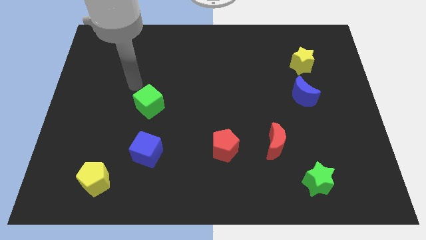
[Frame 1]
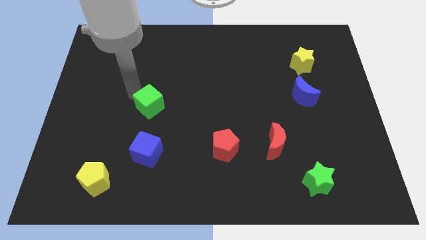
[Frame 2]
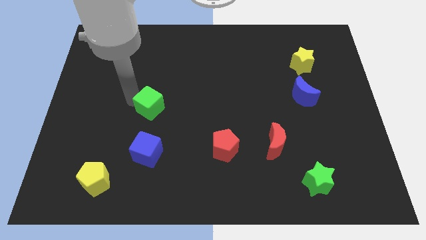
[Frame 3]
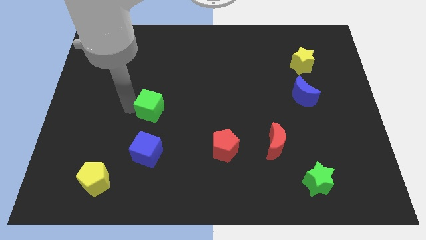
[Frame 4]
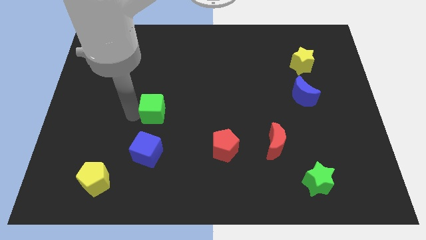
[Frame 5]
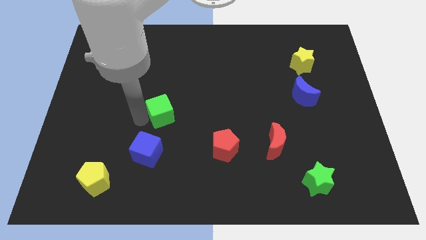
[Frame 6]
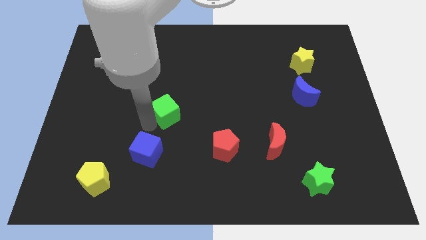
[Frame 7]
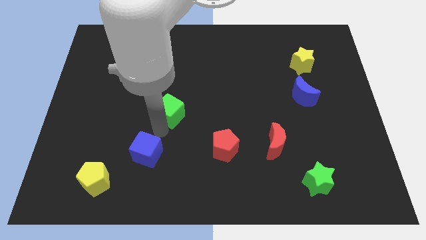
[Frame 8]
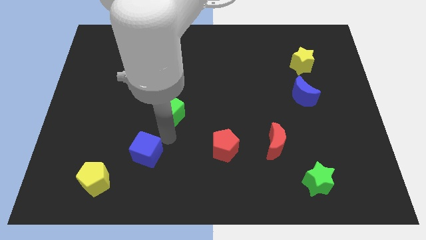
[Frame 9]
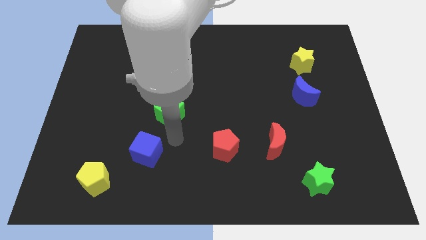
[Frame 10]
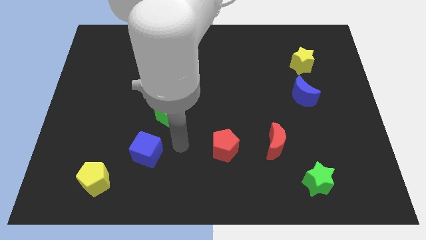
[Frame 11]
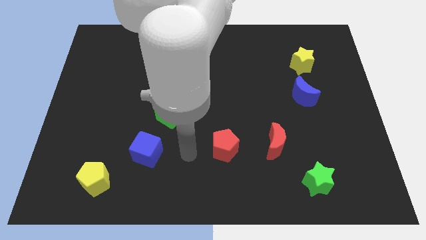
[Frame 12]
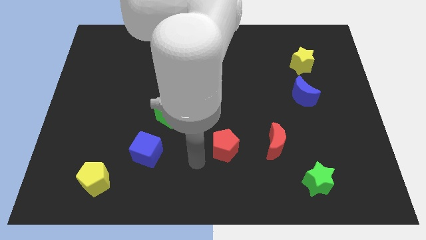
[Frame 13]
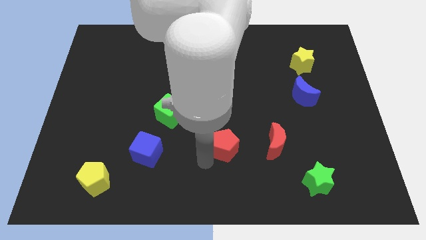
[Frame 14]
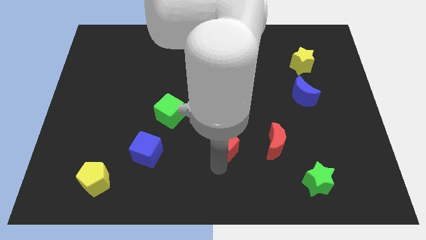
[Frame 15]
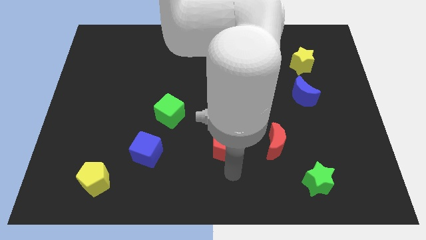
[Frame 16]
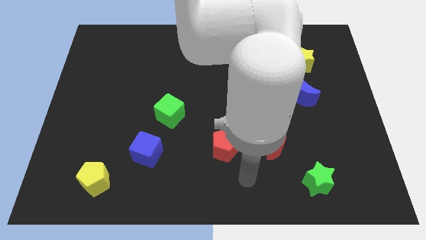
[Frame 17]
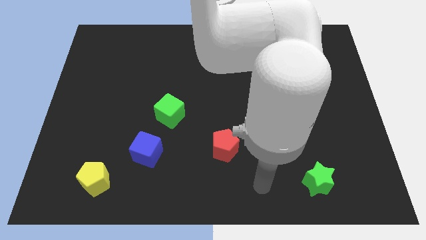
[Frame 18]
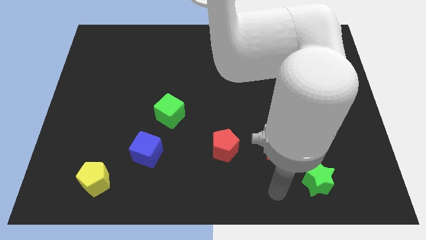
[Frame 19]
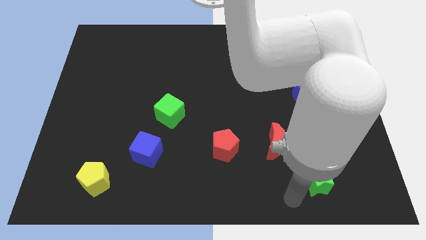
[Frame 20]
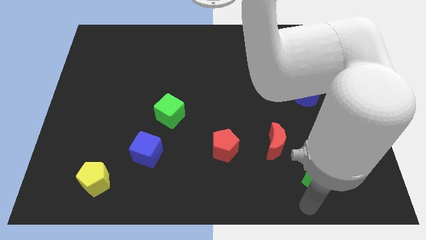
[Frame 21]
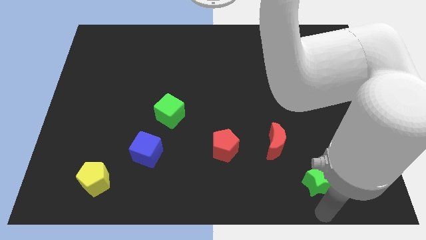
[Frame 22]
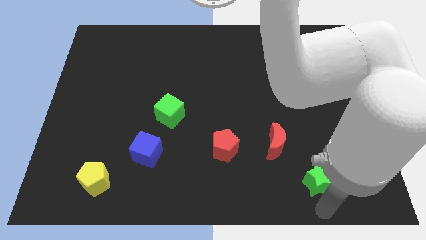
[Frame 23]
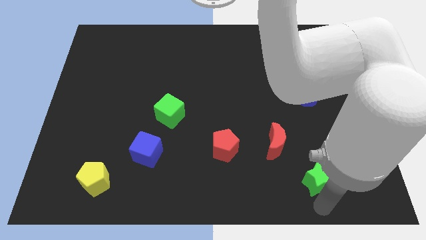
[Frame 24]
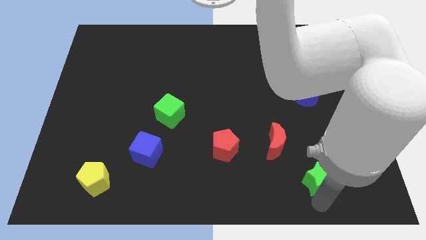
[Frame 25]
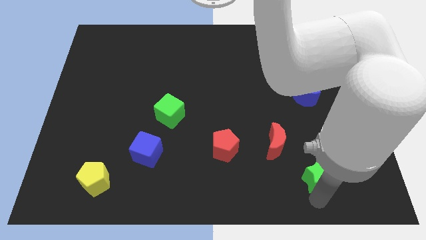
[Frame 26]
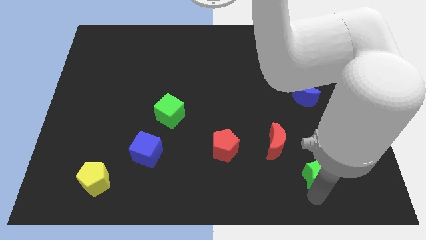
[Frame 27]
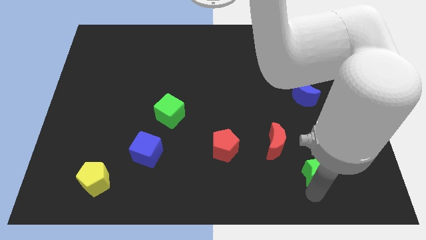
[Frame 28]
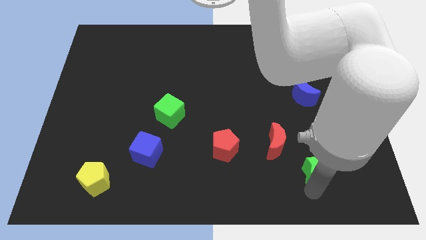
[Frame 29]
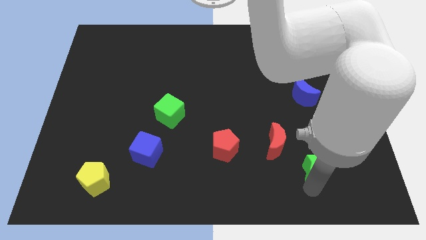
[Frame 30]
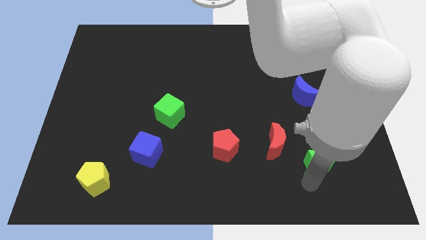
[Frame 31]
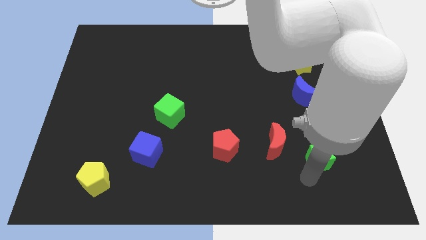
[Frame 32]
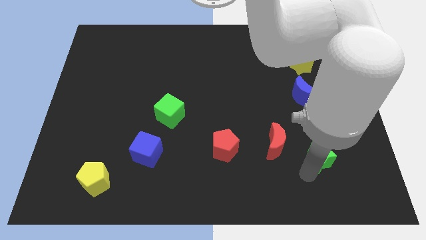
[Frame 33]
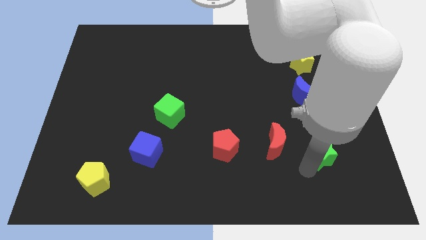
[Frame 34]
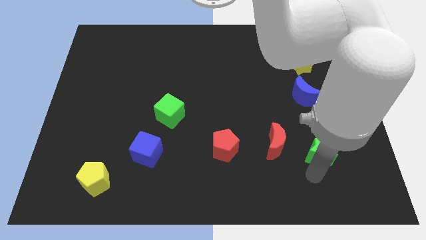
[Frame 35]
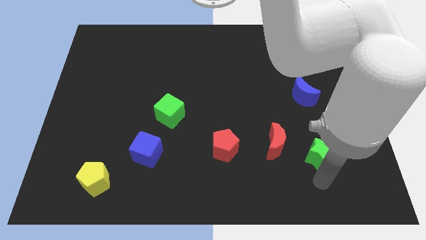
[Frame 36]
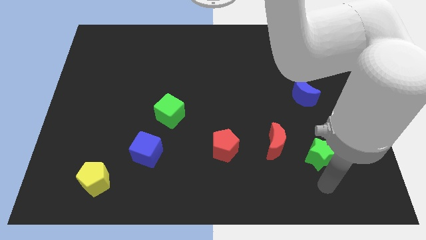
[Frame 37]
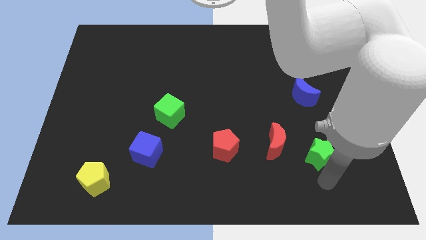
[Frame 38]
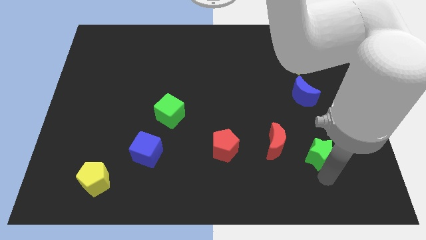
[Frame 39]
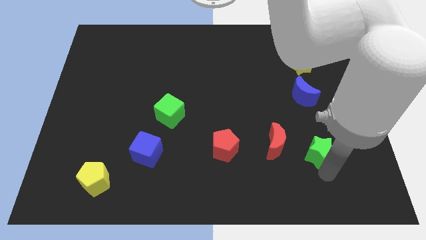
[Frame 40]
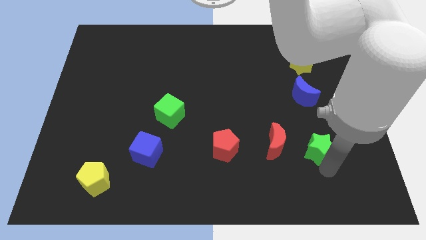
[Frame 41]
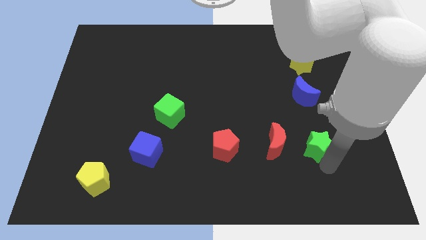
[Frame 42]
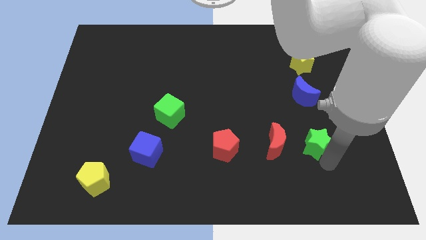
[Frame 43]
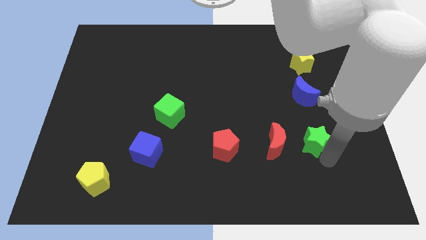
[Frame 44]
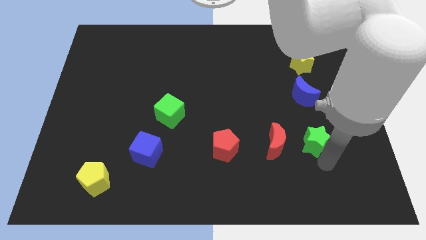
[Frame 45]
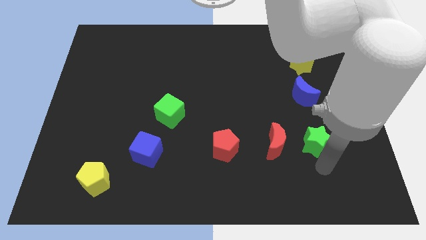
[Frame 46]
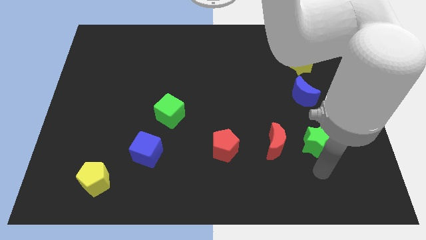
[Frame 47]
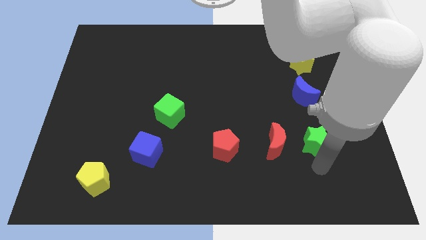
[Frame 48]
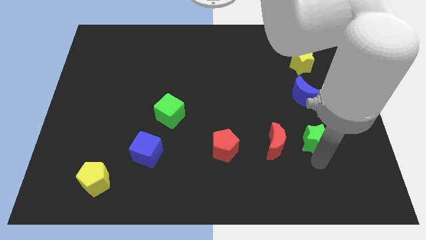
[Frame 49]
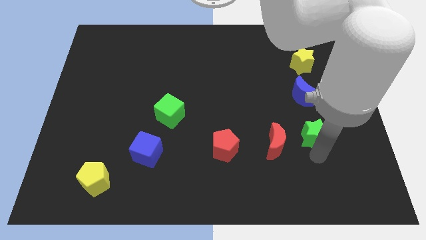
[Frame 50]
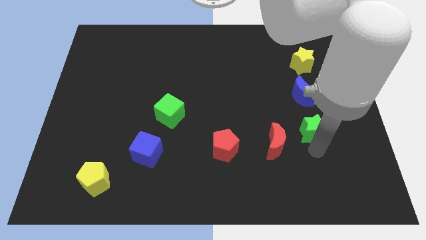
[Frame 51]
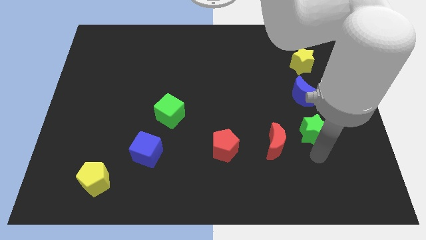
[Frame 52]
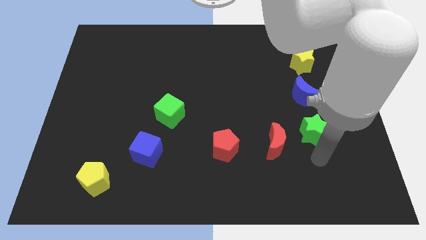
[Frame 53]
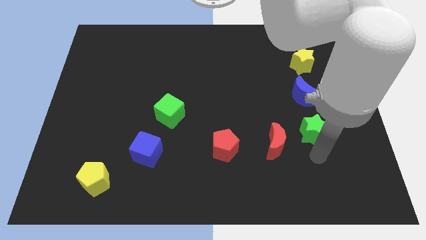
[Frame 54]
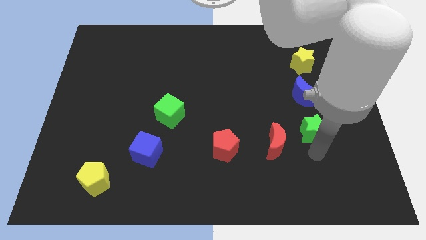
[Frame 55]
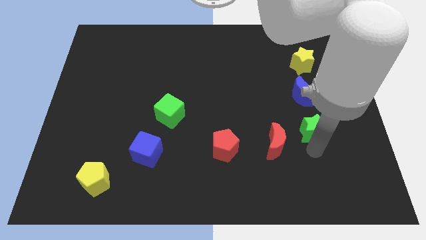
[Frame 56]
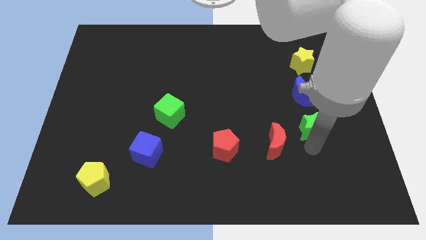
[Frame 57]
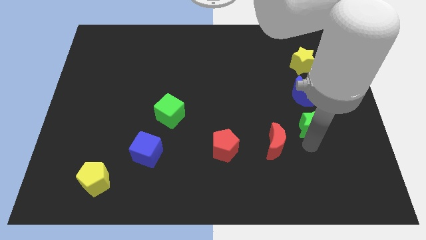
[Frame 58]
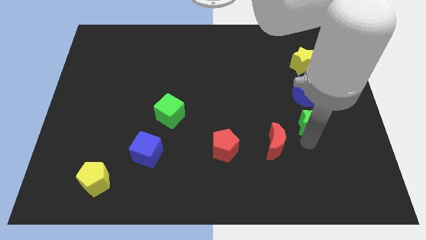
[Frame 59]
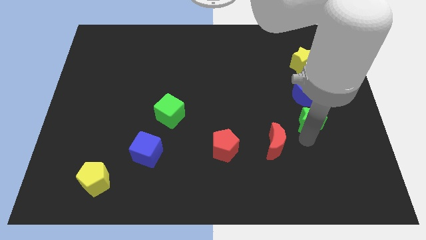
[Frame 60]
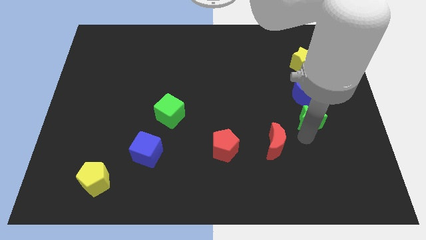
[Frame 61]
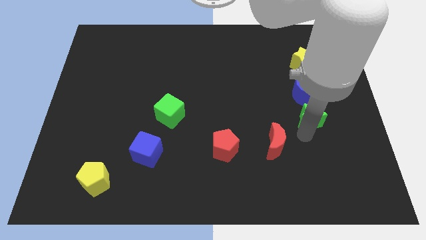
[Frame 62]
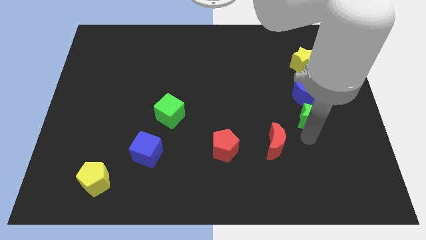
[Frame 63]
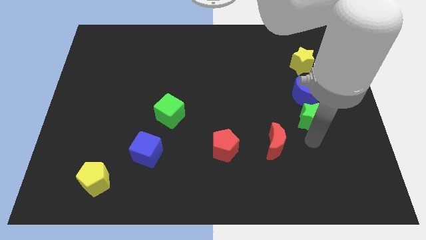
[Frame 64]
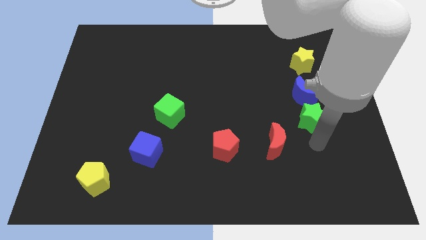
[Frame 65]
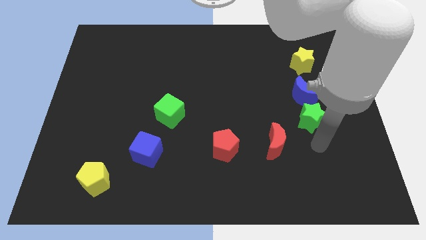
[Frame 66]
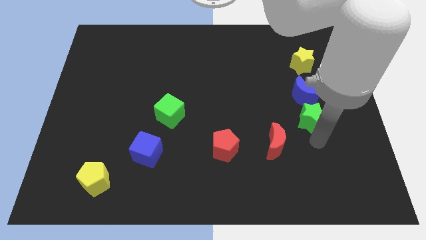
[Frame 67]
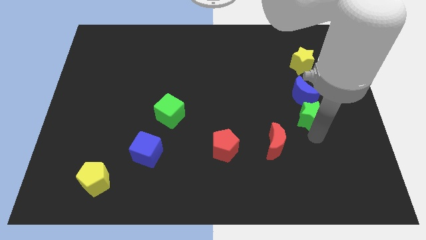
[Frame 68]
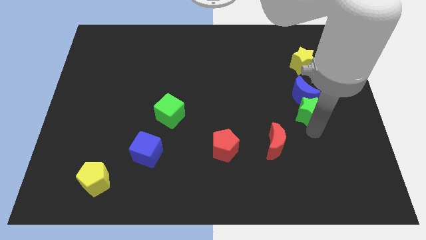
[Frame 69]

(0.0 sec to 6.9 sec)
move the green star to the blue moon

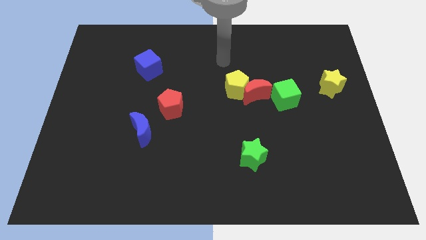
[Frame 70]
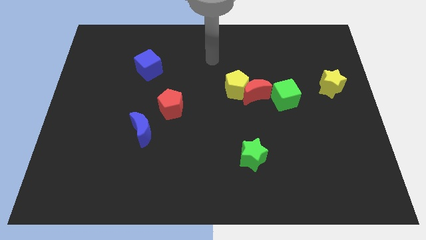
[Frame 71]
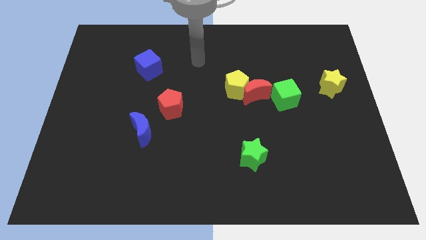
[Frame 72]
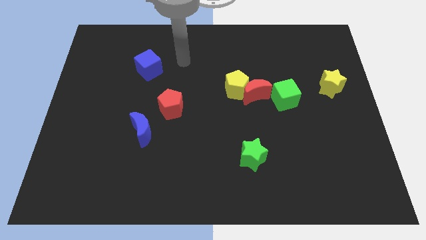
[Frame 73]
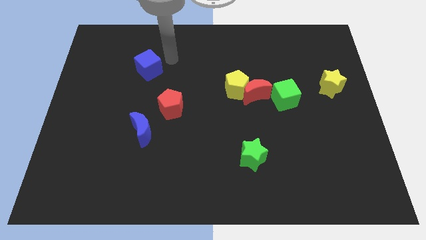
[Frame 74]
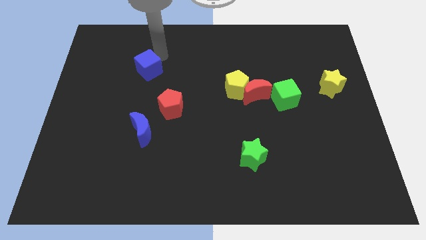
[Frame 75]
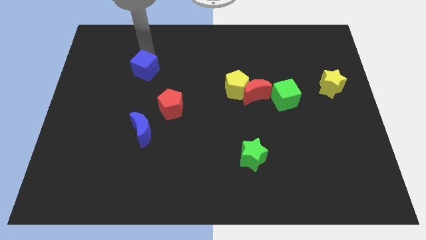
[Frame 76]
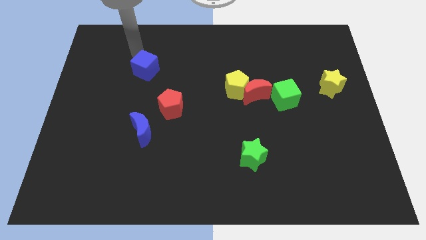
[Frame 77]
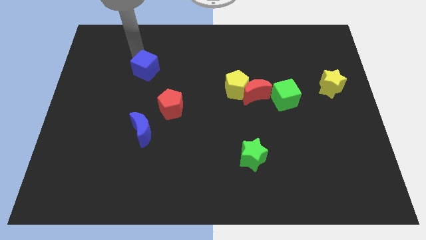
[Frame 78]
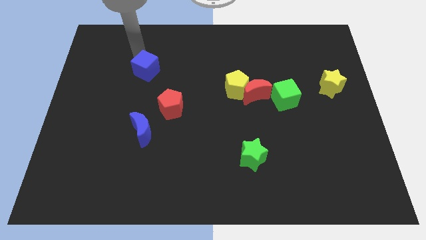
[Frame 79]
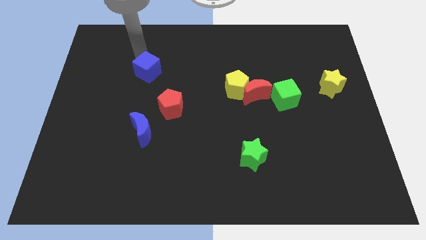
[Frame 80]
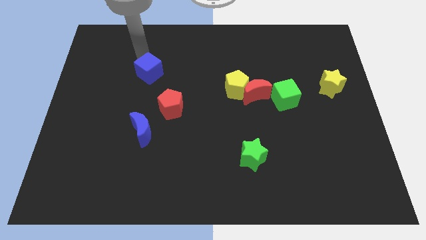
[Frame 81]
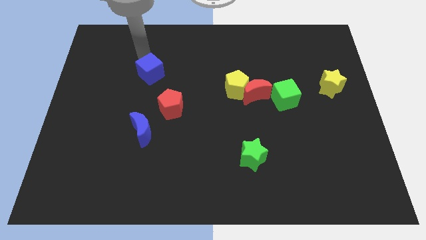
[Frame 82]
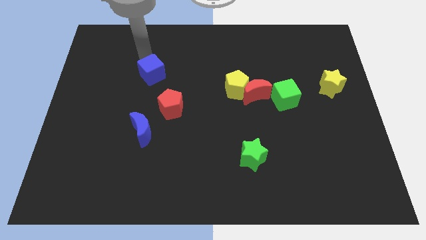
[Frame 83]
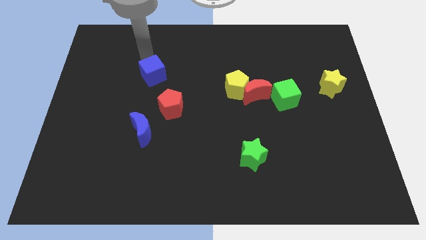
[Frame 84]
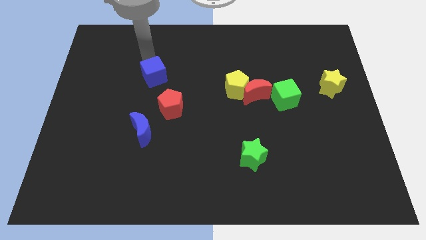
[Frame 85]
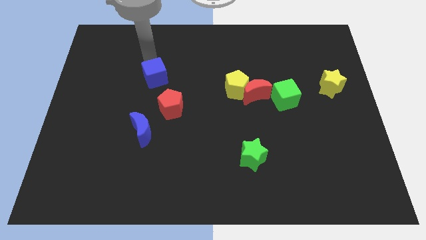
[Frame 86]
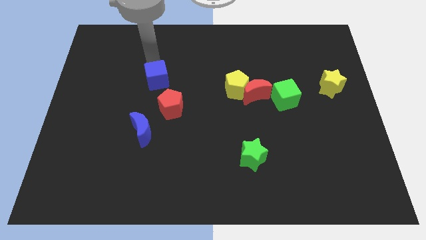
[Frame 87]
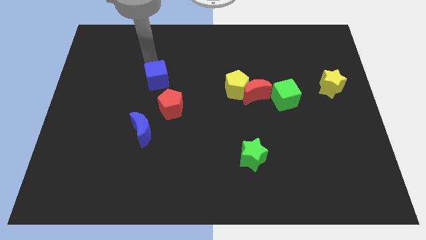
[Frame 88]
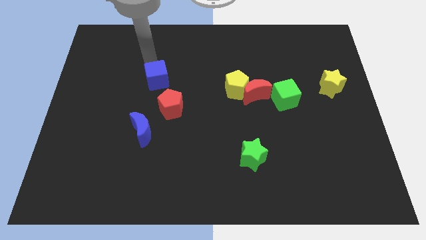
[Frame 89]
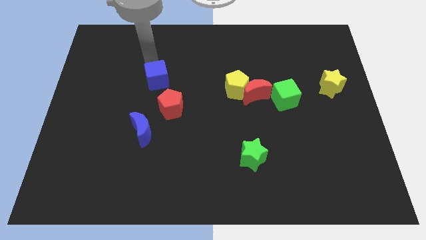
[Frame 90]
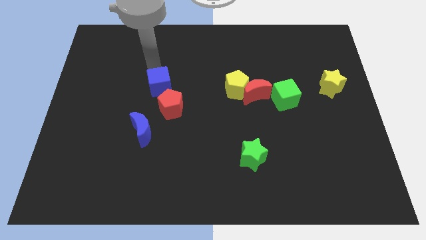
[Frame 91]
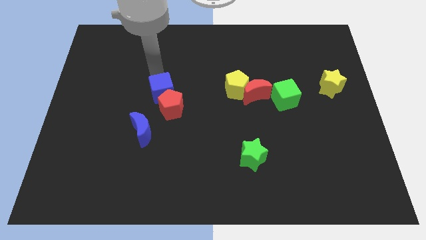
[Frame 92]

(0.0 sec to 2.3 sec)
slide the blue cube towards the red pentagon
